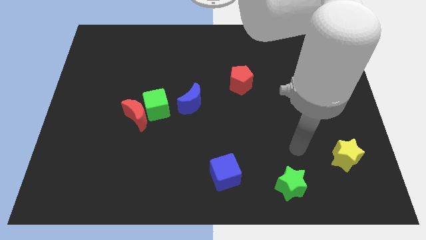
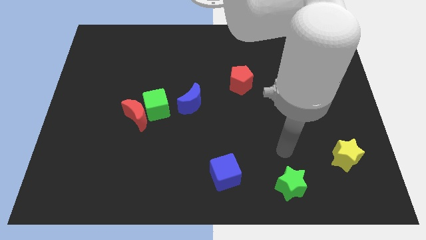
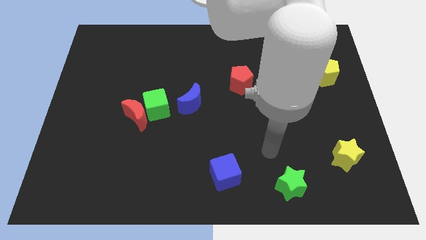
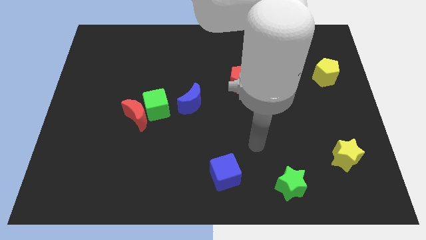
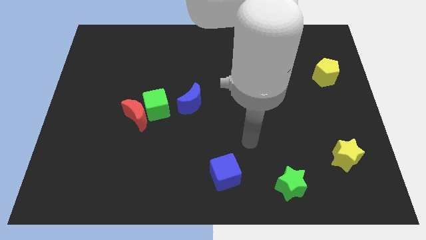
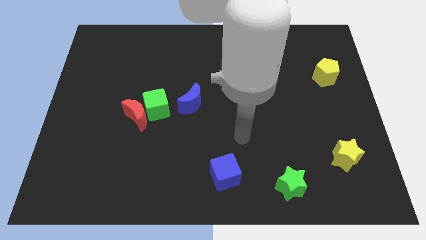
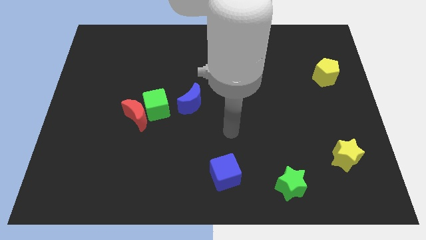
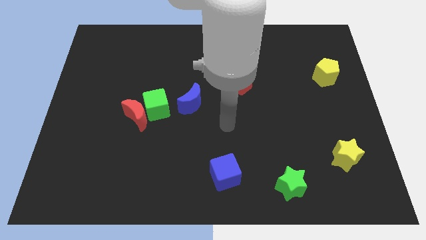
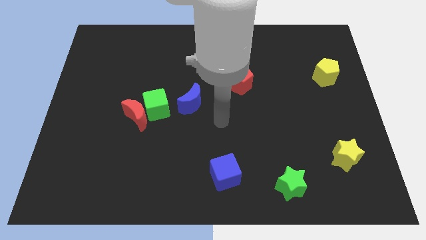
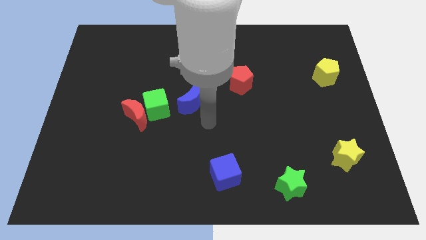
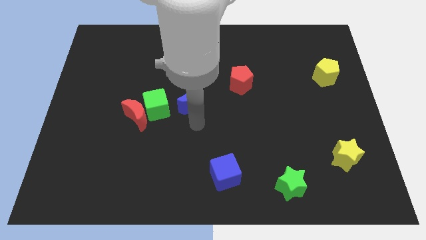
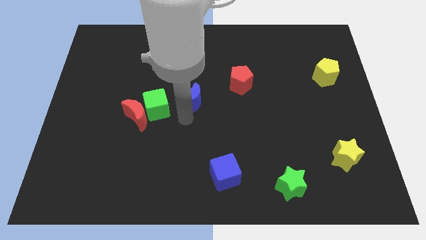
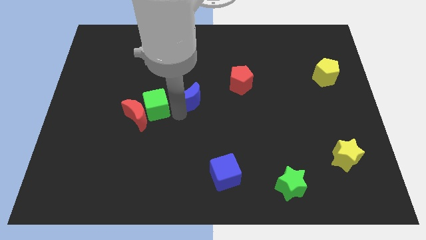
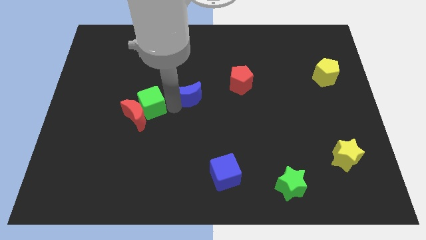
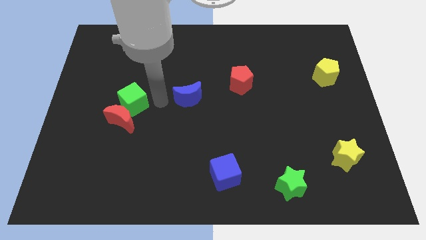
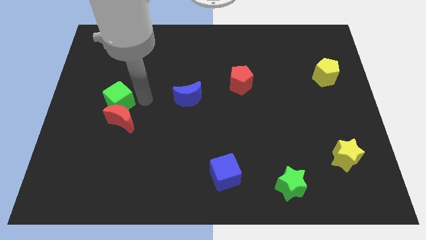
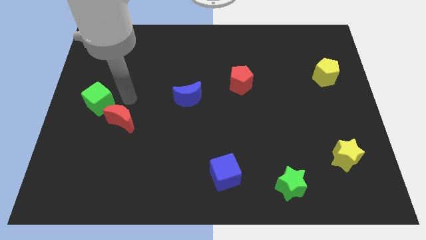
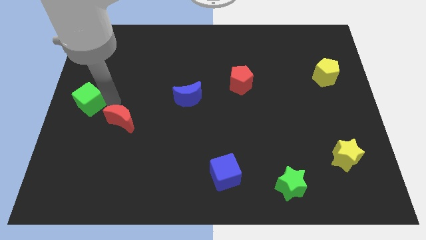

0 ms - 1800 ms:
separate the red moon from the green cube

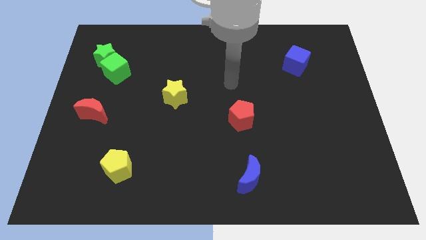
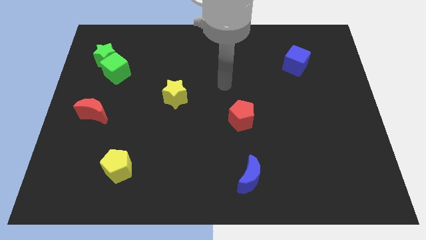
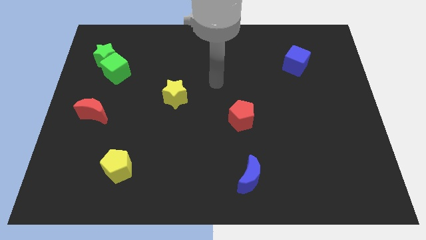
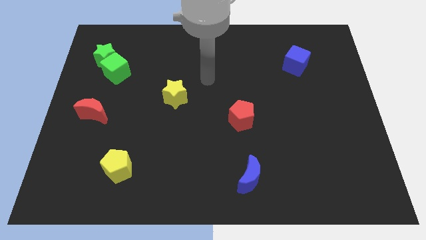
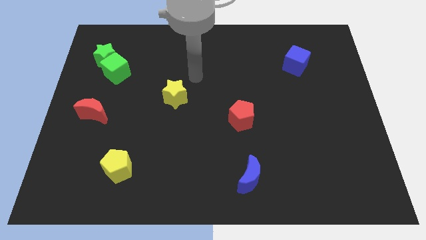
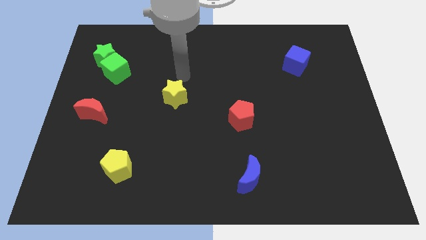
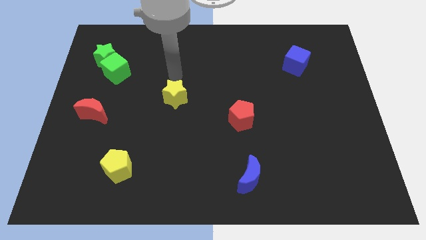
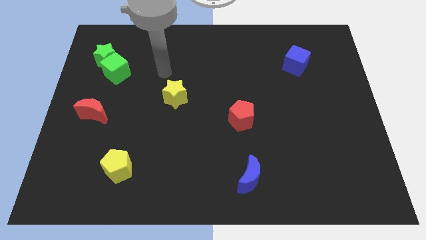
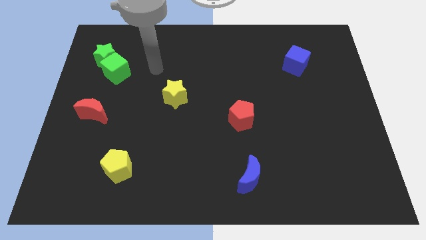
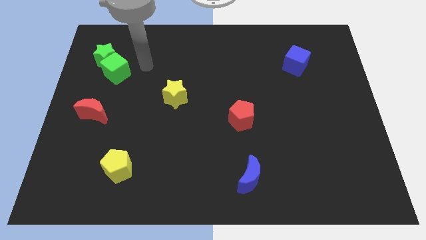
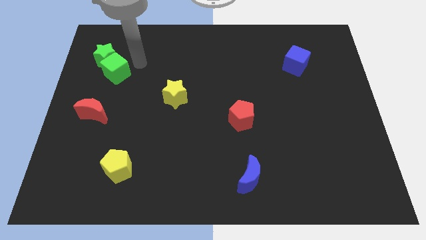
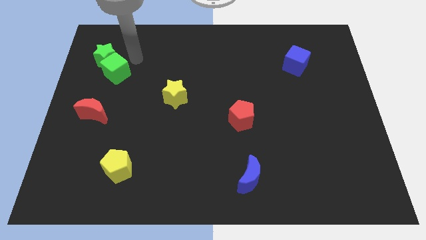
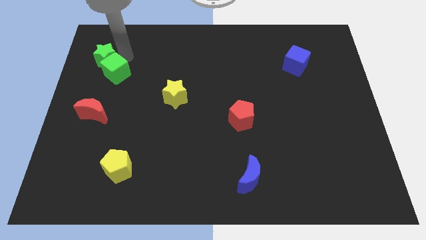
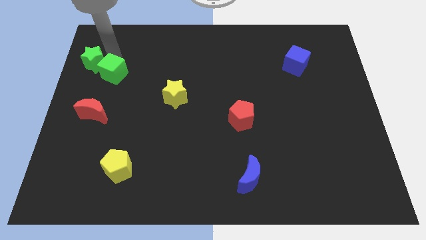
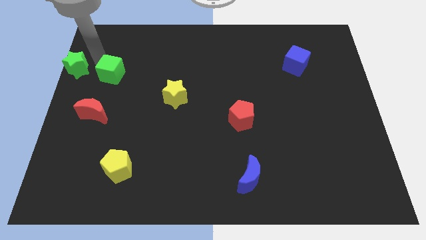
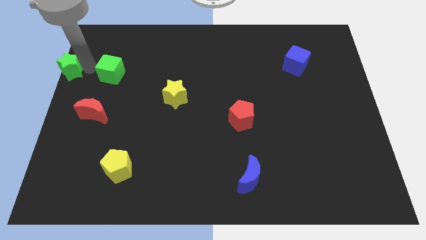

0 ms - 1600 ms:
move the green cube away from the green star

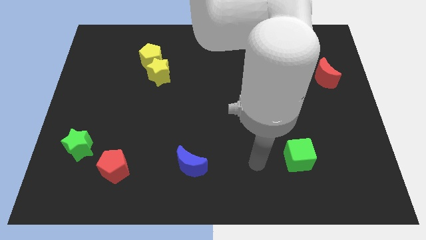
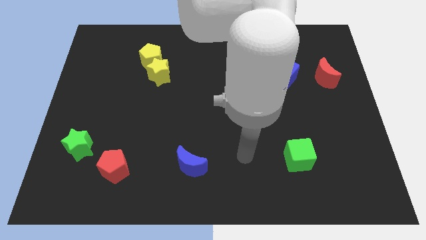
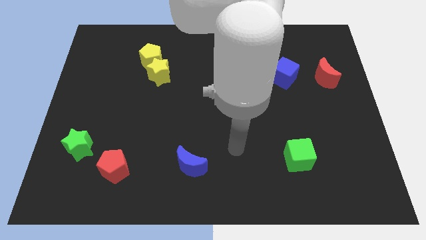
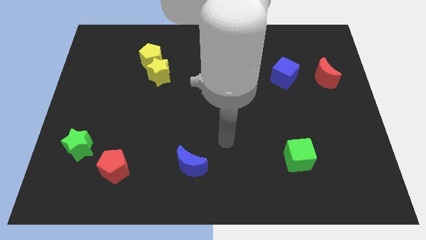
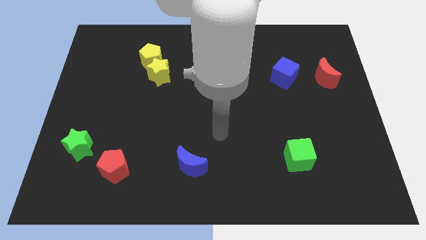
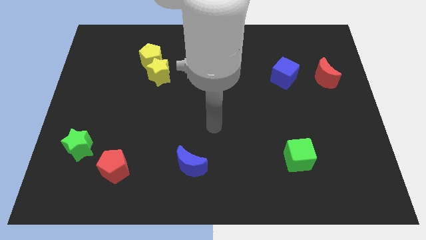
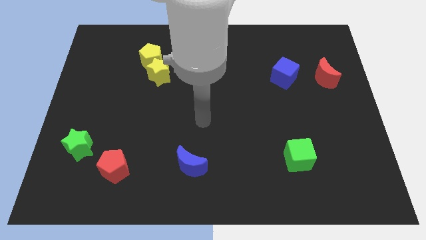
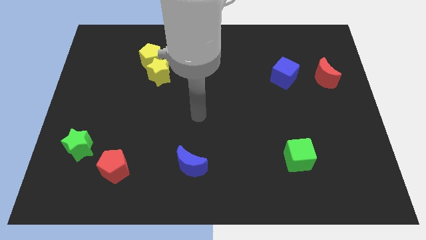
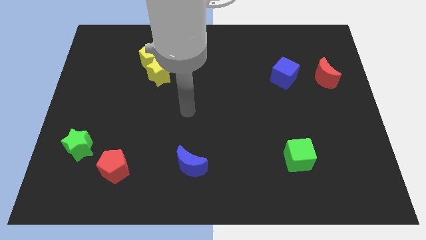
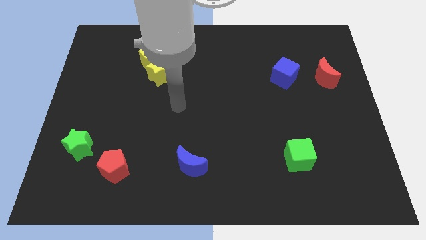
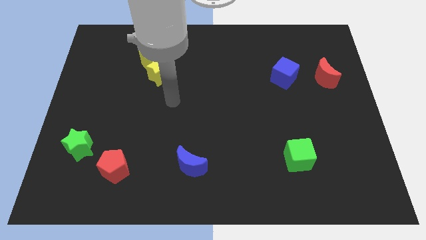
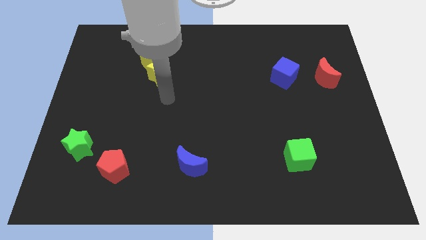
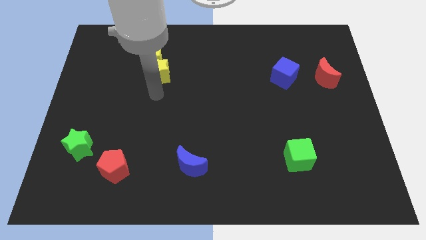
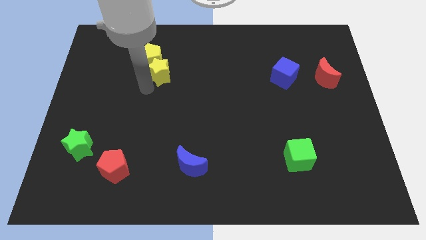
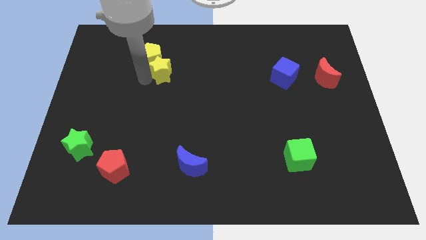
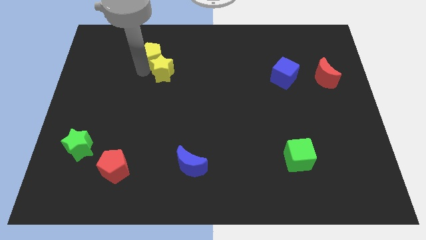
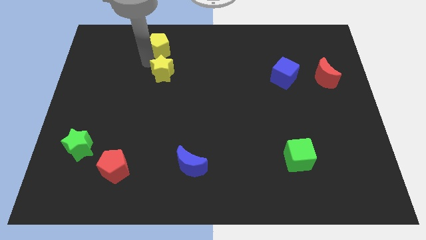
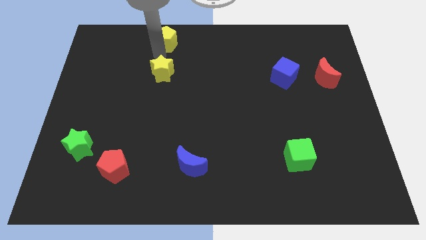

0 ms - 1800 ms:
pull the yellow star apart from the yellow pentagon

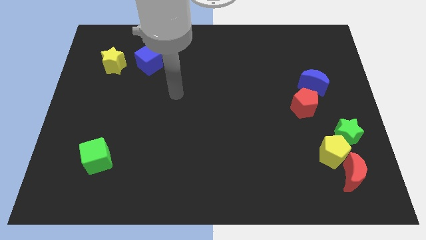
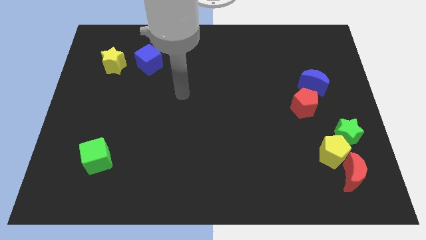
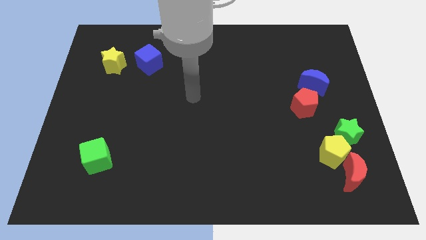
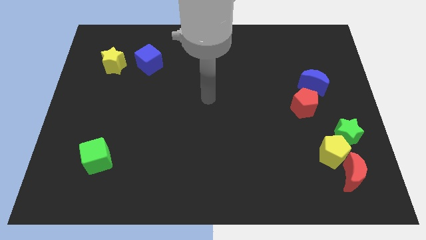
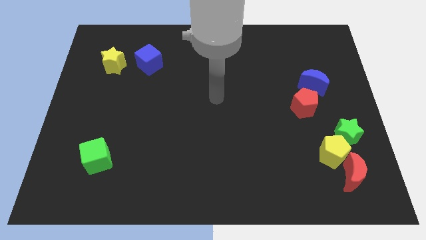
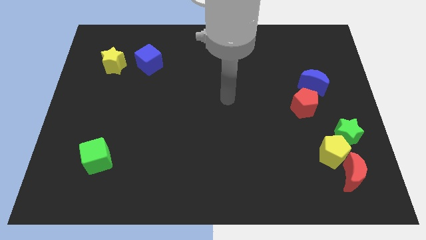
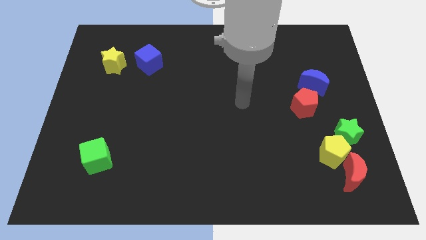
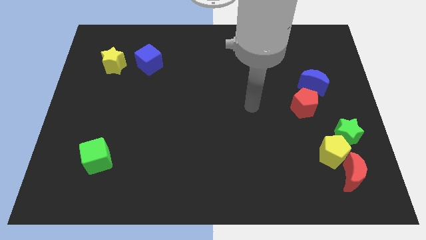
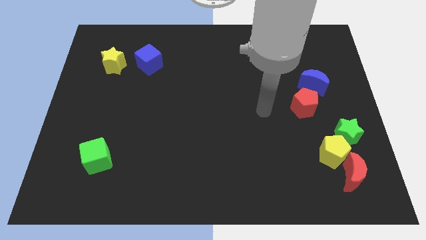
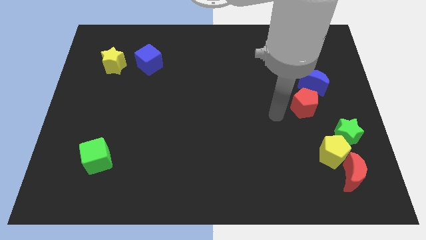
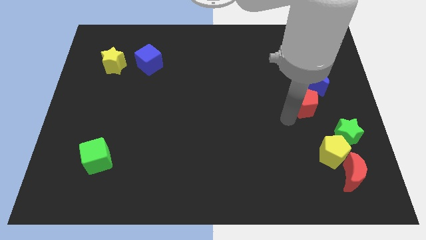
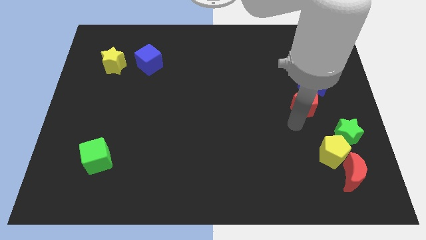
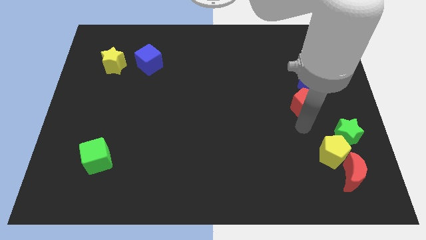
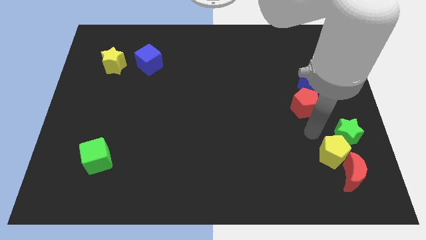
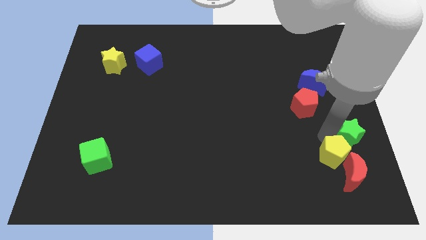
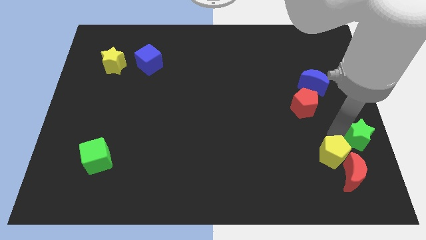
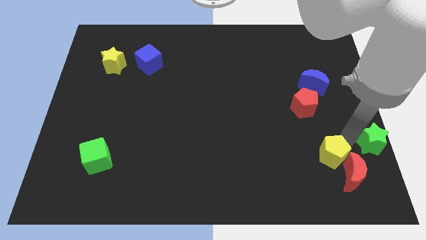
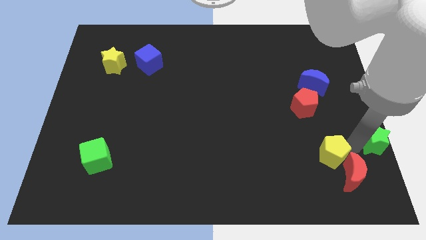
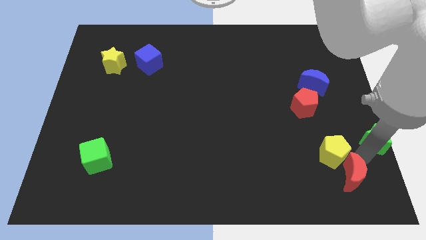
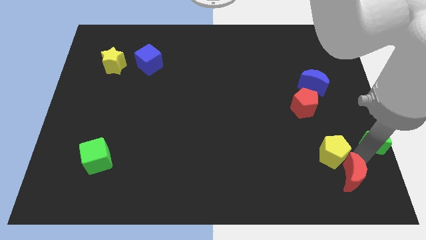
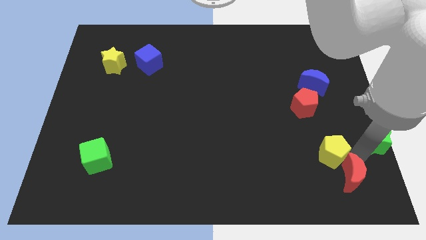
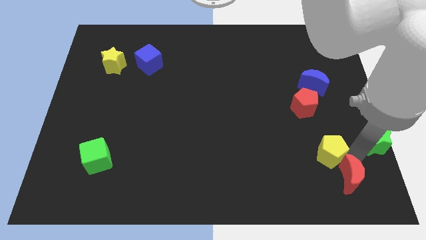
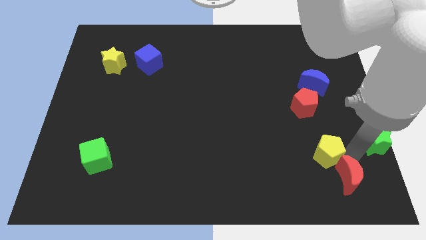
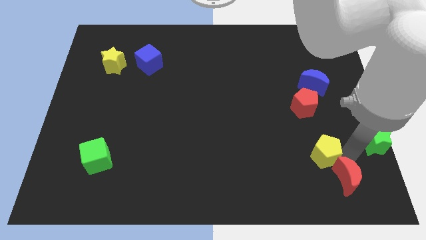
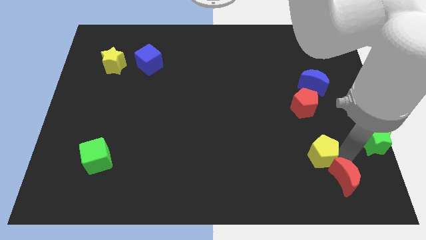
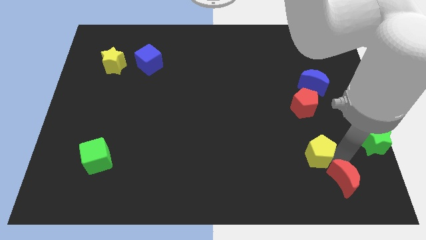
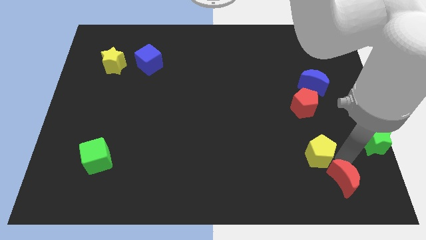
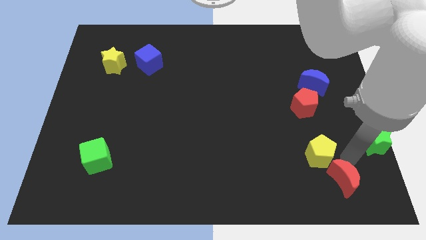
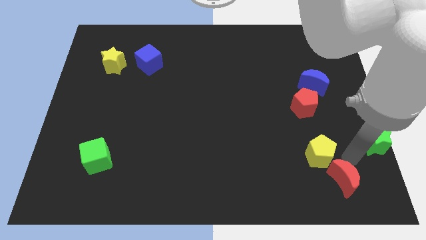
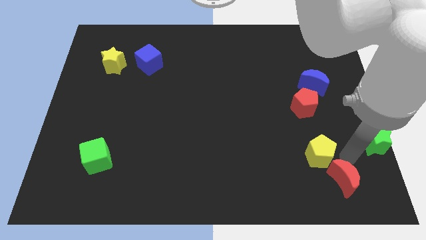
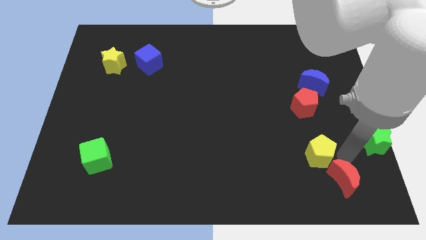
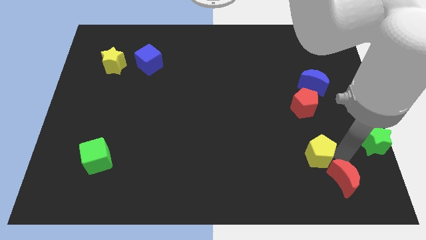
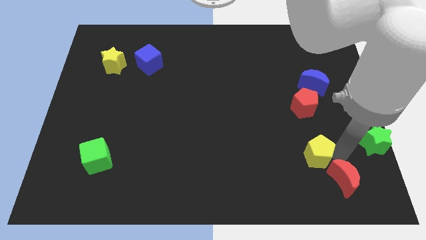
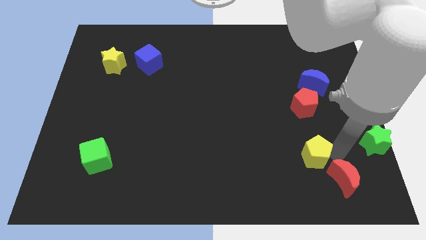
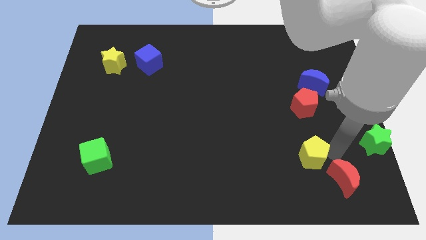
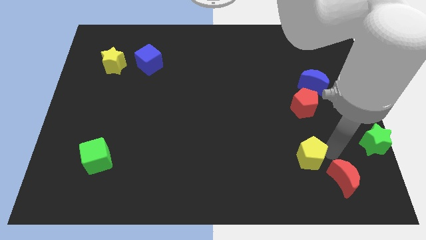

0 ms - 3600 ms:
pull the yellow pentagon apart from the green star and red moon

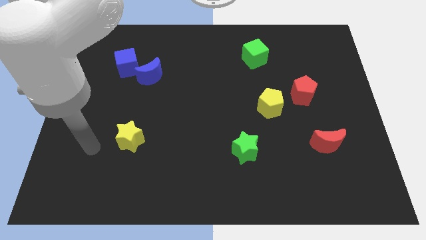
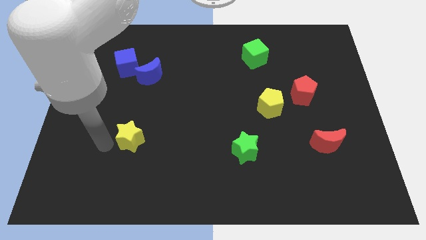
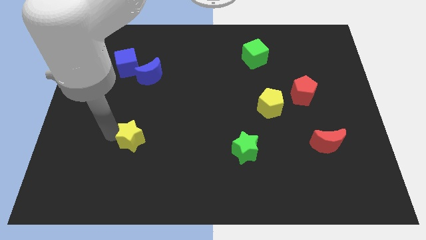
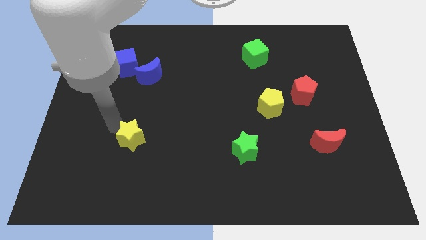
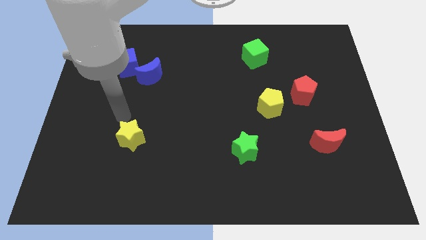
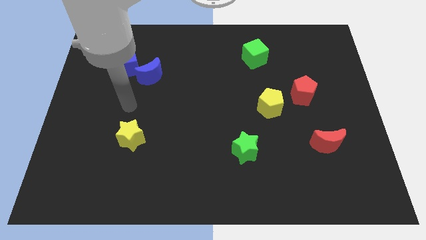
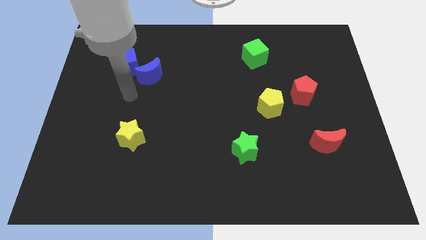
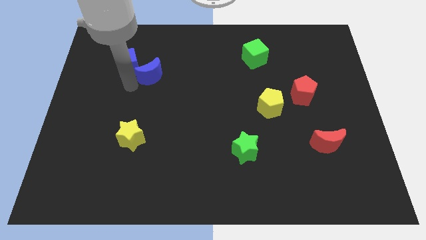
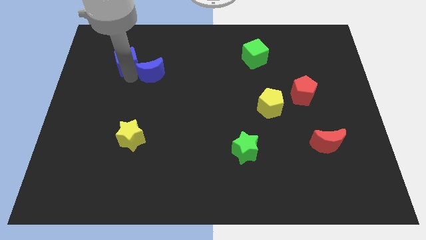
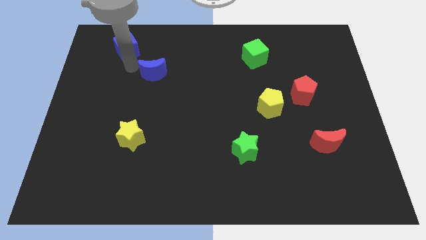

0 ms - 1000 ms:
pull the blue moon apart from the blue cube
